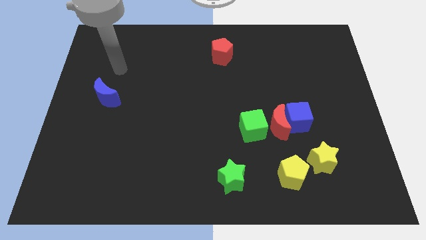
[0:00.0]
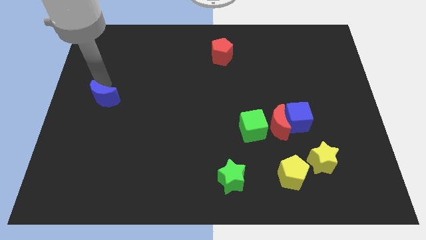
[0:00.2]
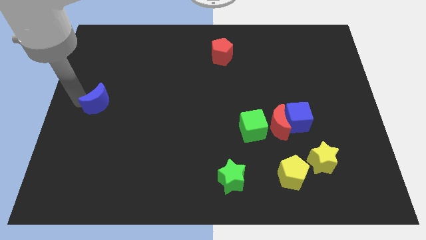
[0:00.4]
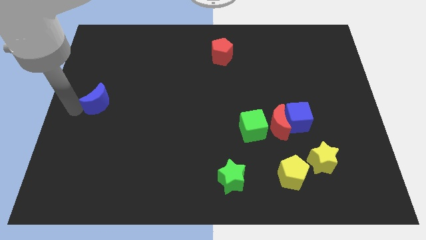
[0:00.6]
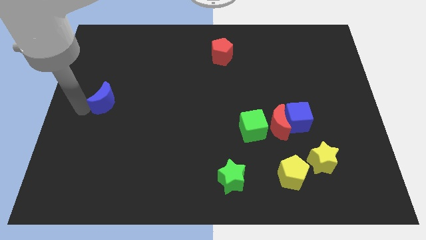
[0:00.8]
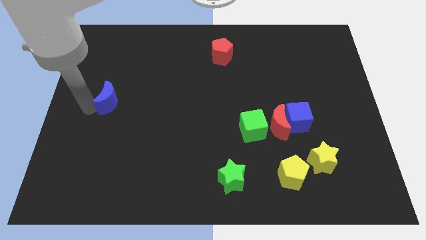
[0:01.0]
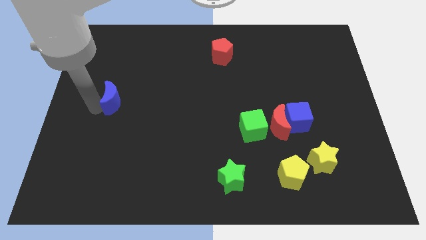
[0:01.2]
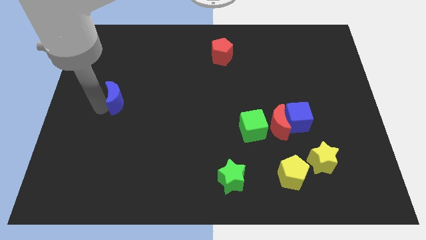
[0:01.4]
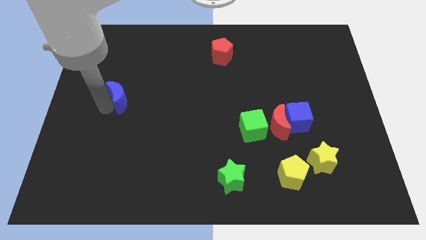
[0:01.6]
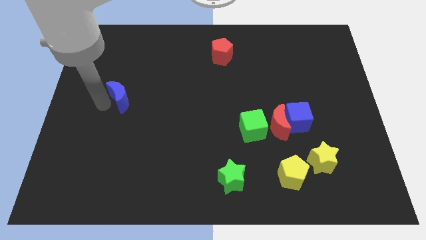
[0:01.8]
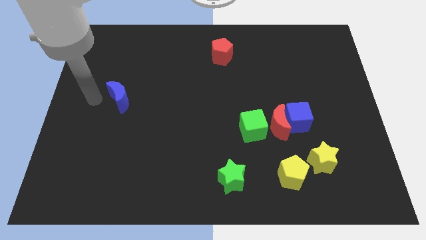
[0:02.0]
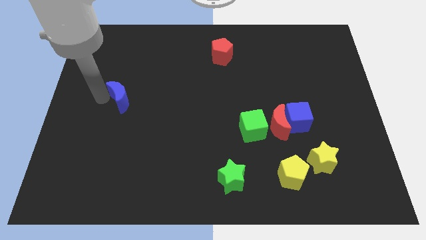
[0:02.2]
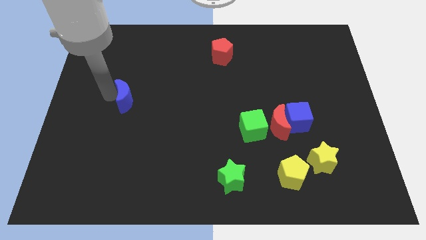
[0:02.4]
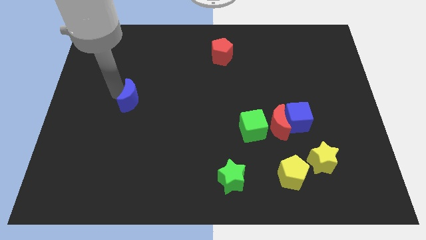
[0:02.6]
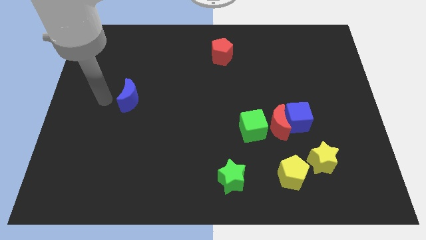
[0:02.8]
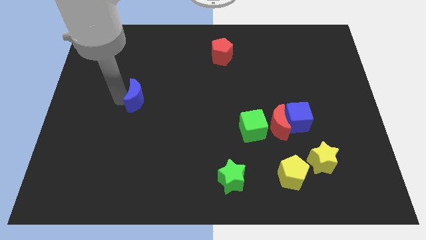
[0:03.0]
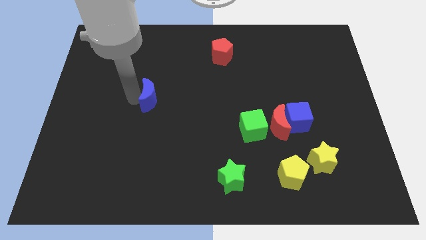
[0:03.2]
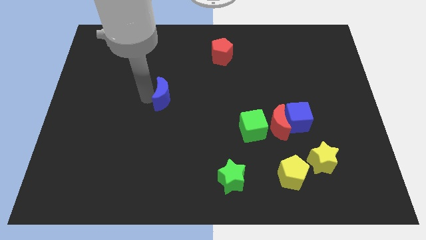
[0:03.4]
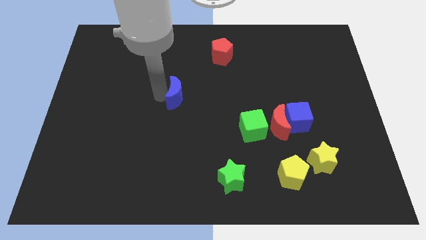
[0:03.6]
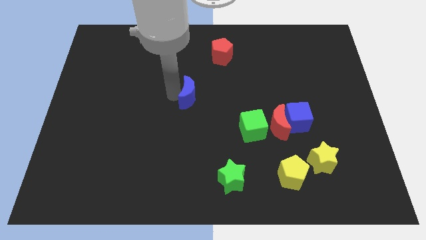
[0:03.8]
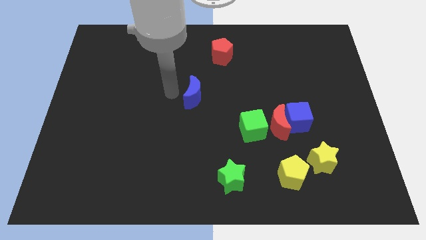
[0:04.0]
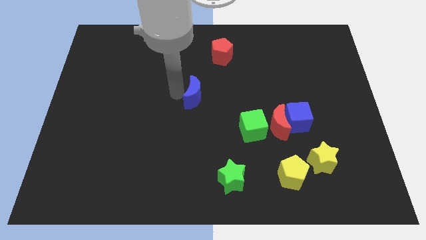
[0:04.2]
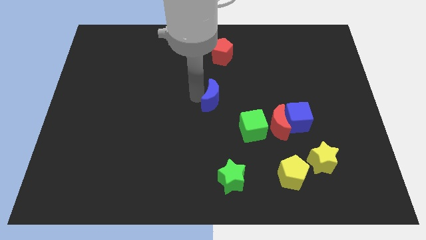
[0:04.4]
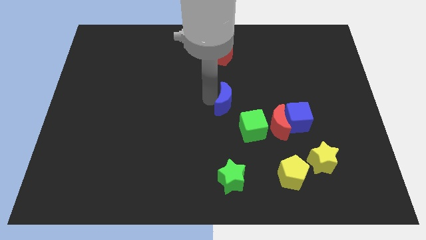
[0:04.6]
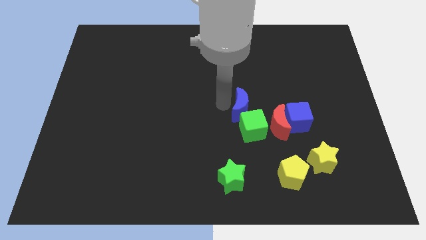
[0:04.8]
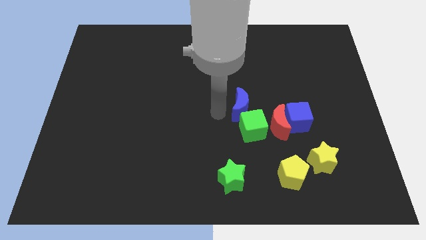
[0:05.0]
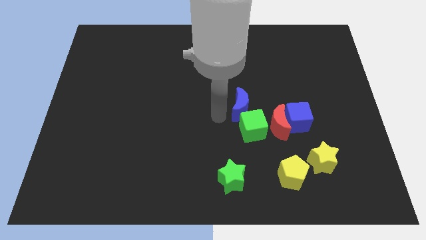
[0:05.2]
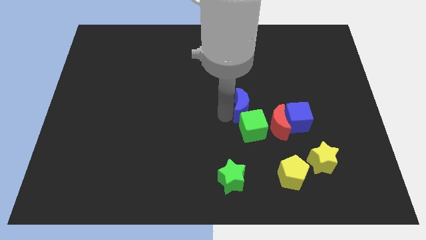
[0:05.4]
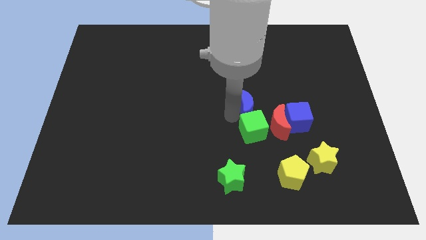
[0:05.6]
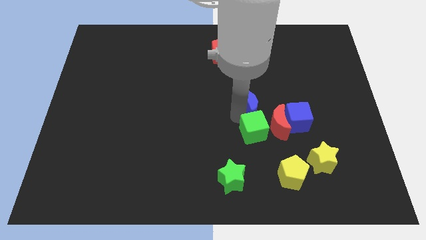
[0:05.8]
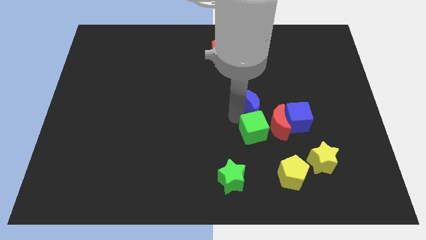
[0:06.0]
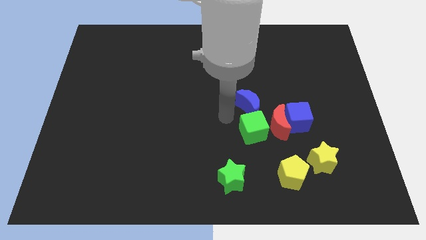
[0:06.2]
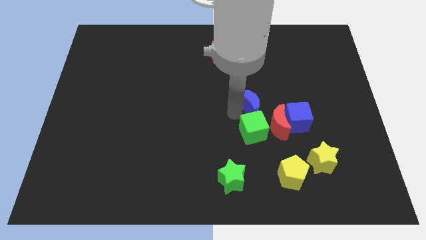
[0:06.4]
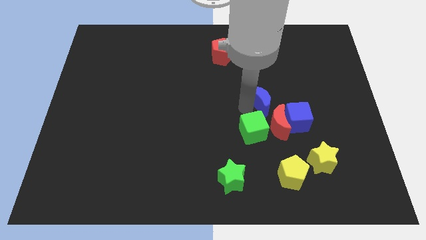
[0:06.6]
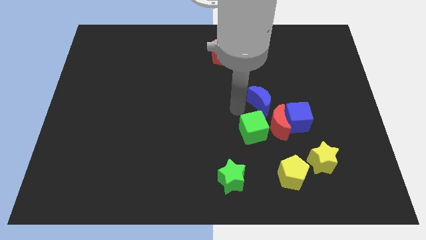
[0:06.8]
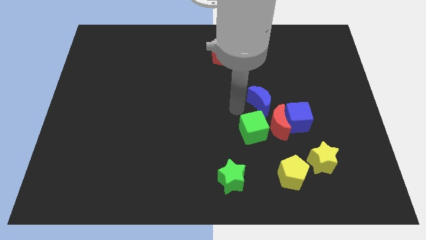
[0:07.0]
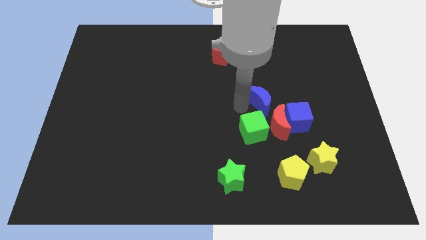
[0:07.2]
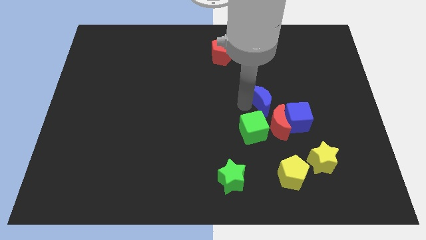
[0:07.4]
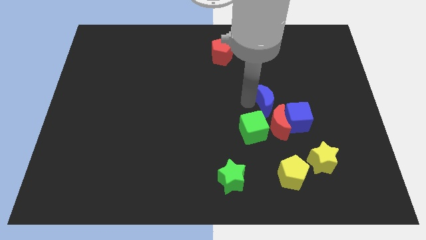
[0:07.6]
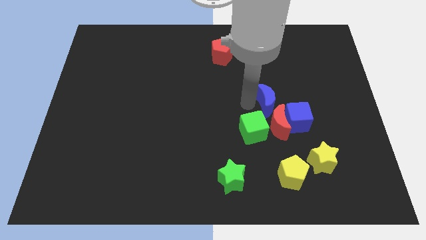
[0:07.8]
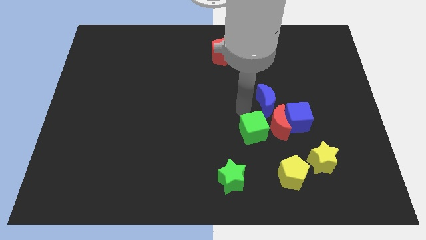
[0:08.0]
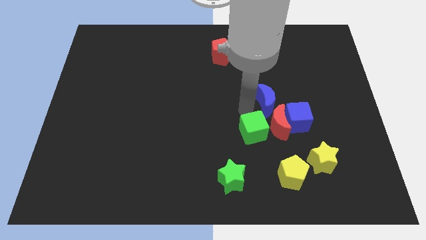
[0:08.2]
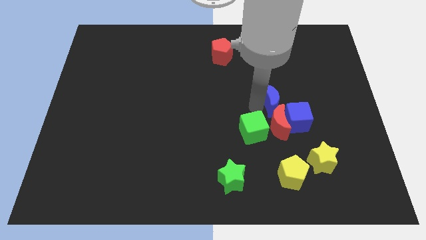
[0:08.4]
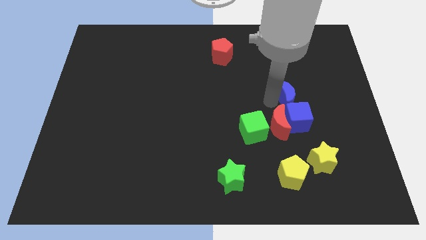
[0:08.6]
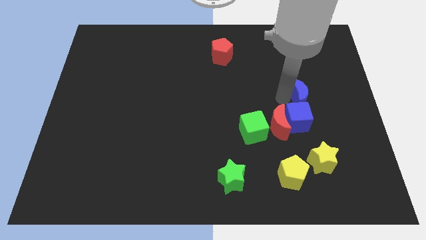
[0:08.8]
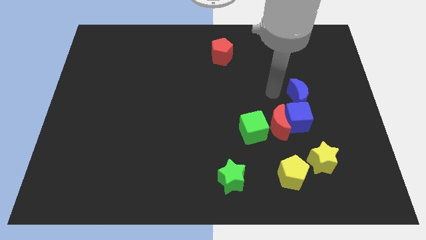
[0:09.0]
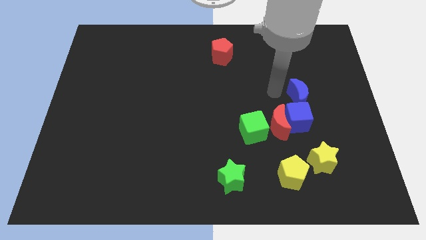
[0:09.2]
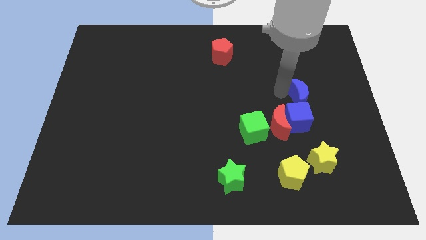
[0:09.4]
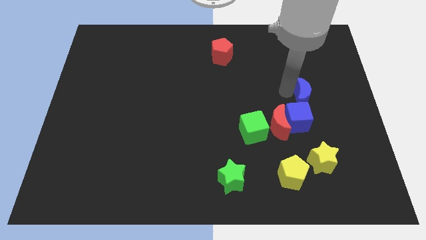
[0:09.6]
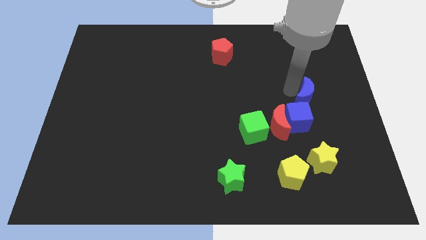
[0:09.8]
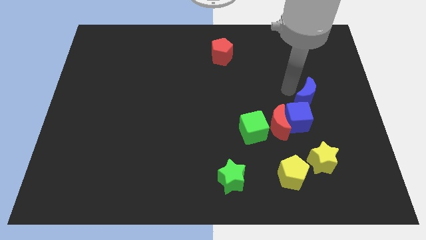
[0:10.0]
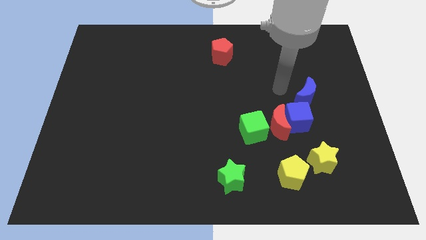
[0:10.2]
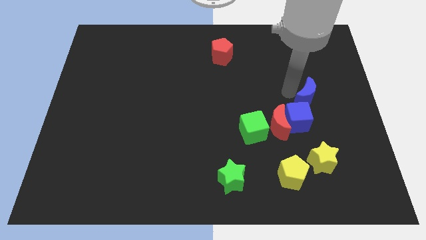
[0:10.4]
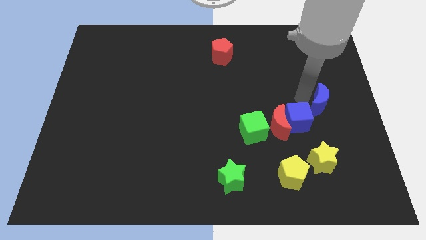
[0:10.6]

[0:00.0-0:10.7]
put the blue moon to the center right
